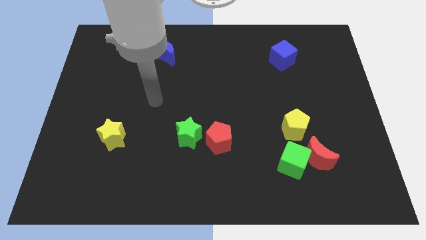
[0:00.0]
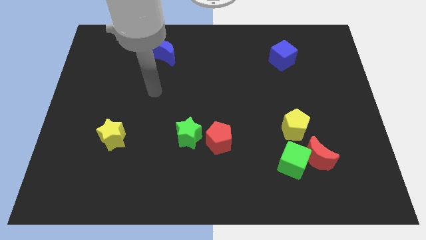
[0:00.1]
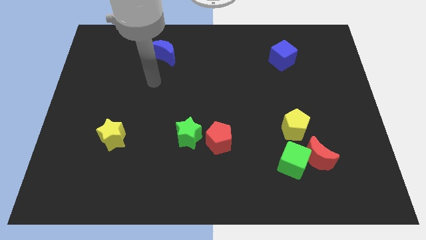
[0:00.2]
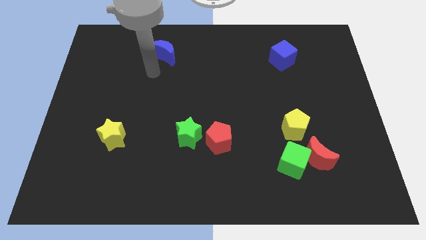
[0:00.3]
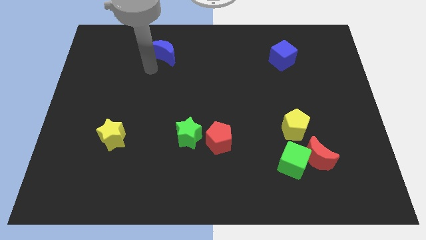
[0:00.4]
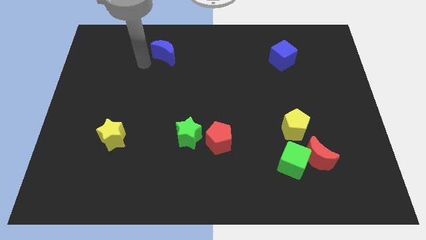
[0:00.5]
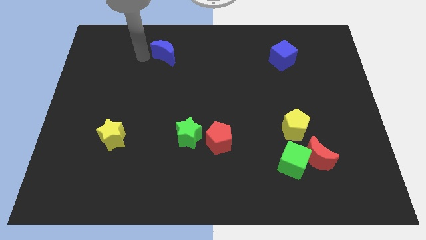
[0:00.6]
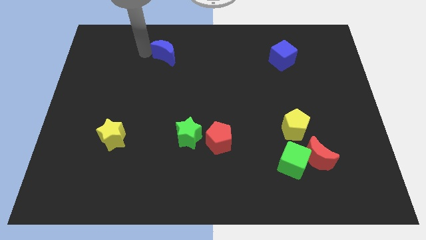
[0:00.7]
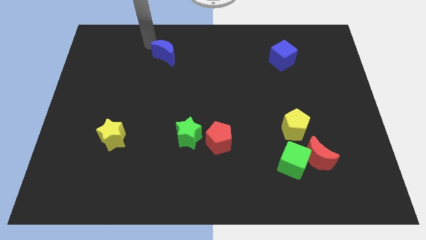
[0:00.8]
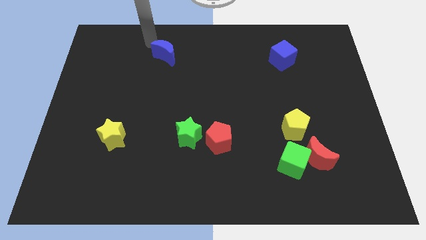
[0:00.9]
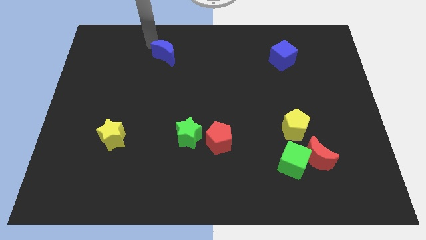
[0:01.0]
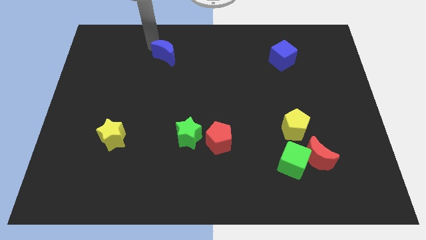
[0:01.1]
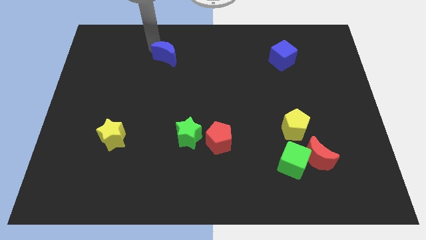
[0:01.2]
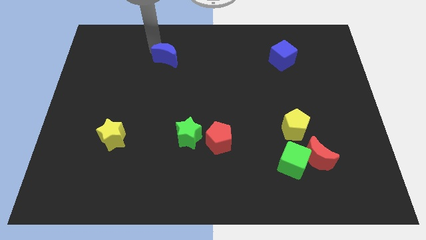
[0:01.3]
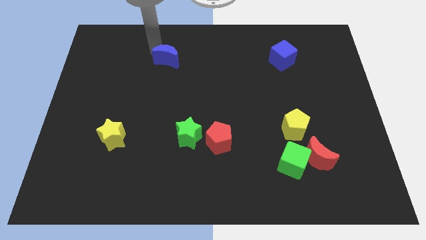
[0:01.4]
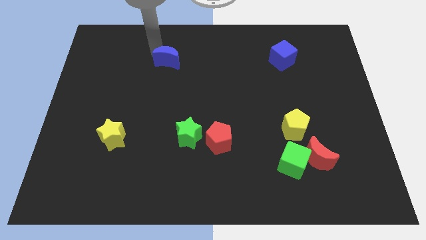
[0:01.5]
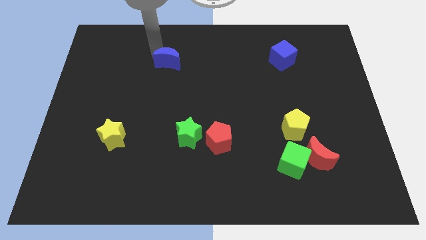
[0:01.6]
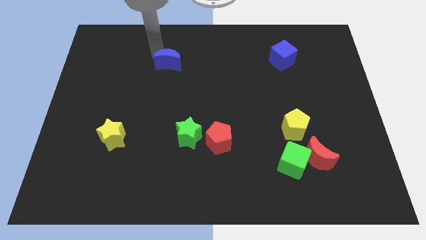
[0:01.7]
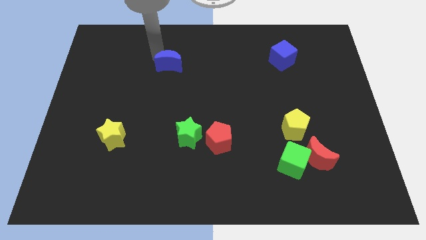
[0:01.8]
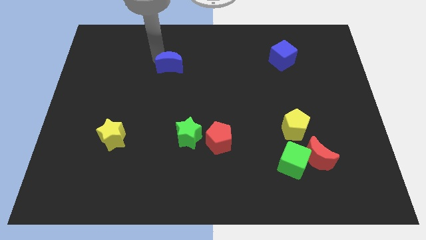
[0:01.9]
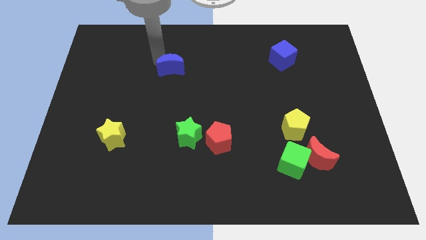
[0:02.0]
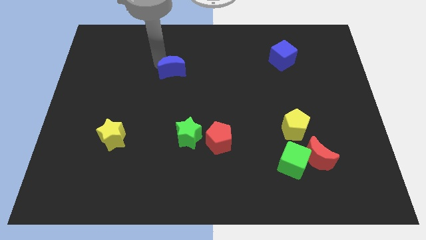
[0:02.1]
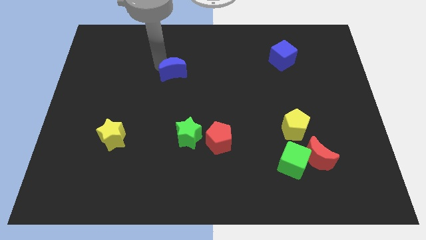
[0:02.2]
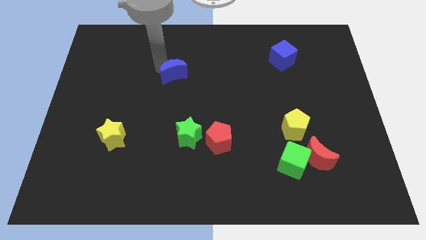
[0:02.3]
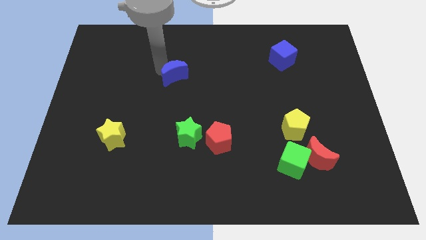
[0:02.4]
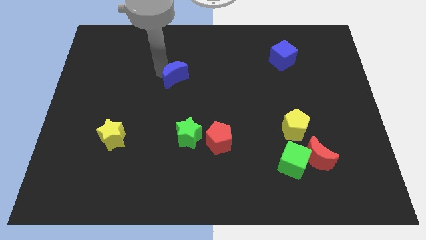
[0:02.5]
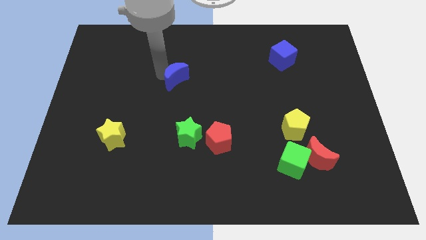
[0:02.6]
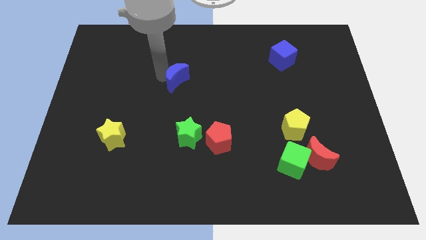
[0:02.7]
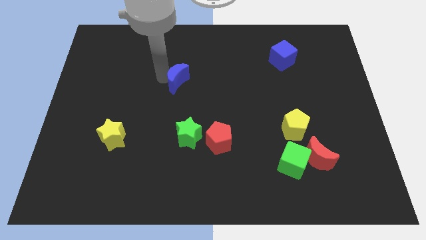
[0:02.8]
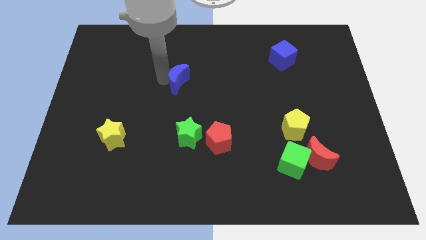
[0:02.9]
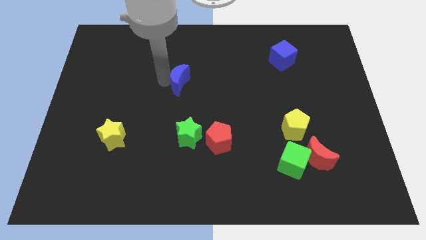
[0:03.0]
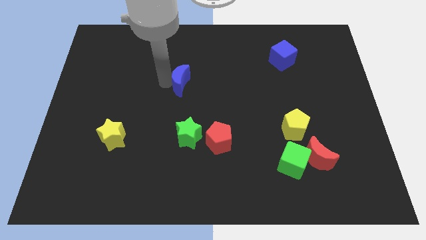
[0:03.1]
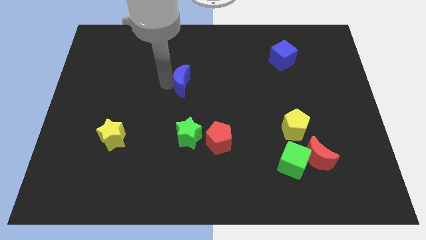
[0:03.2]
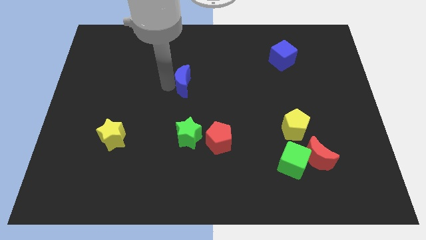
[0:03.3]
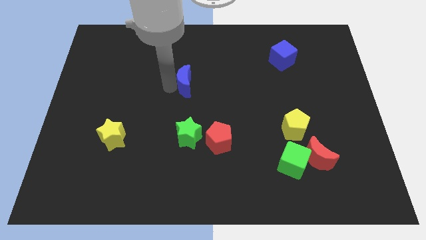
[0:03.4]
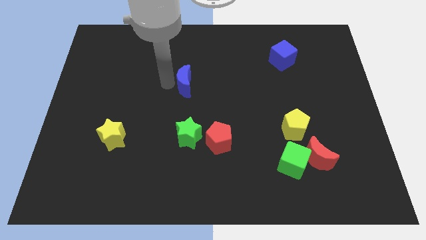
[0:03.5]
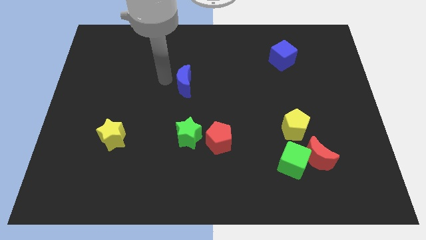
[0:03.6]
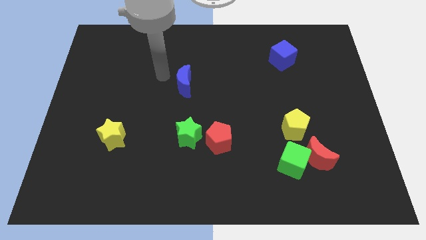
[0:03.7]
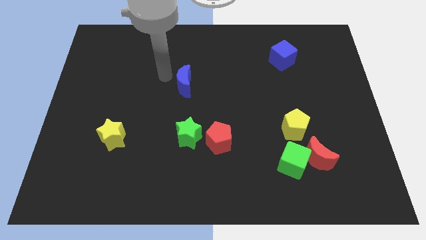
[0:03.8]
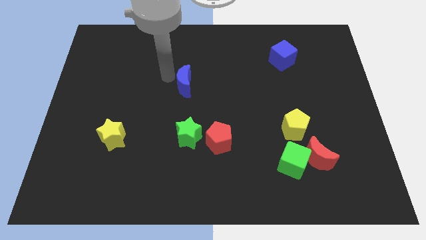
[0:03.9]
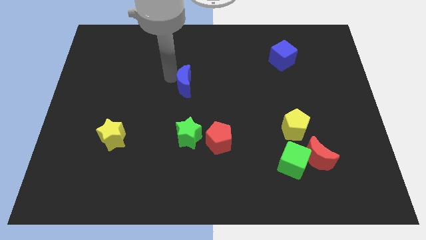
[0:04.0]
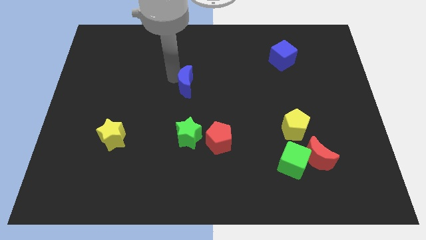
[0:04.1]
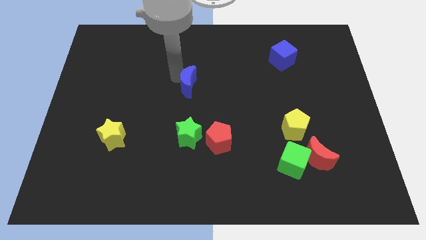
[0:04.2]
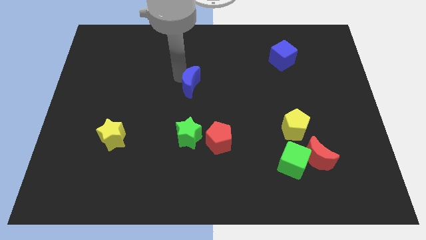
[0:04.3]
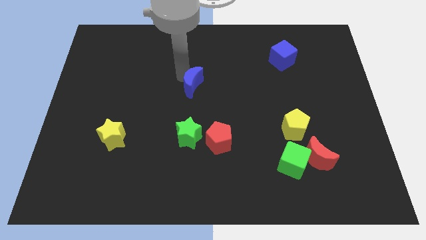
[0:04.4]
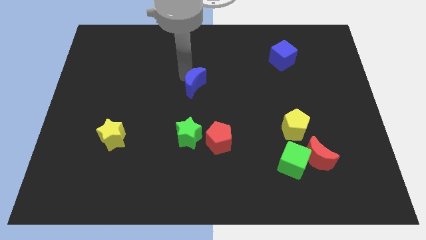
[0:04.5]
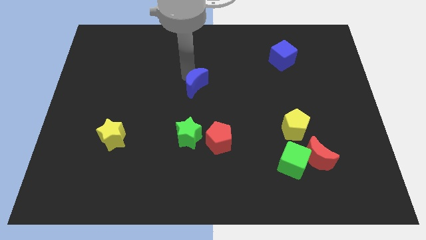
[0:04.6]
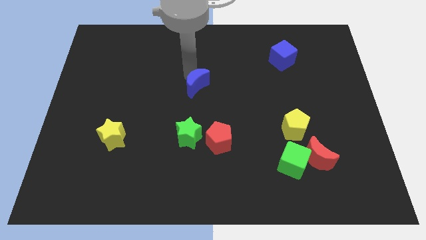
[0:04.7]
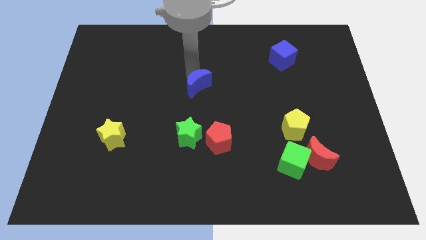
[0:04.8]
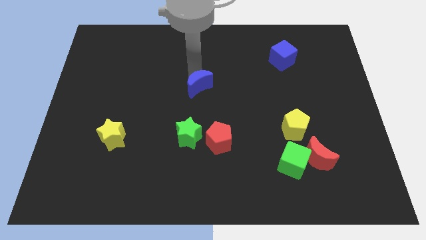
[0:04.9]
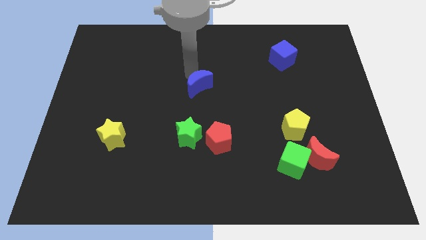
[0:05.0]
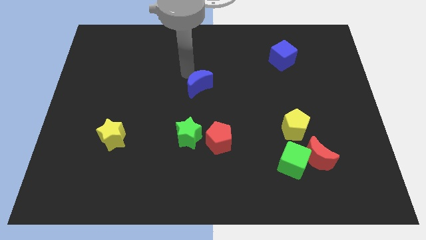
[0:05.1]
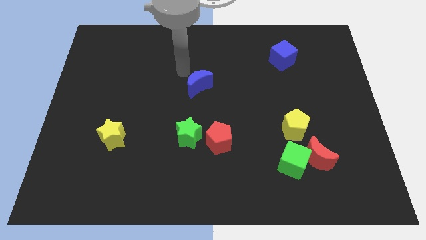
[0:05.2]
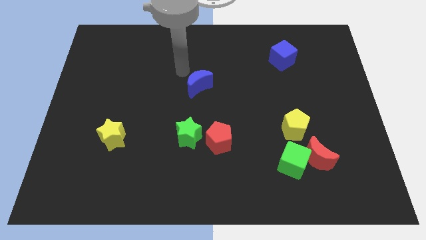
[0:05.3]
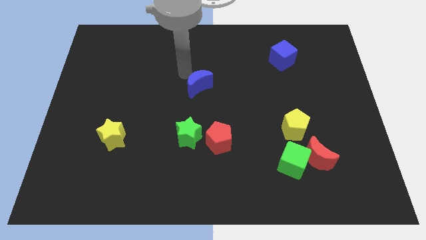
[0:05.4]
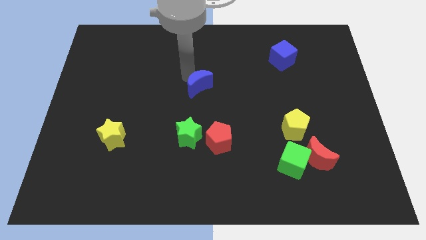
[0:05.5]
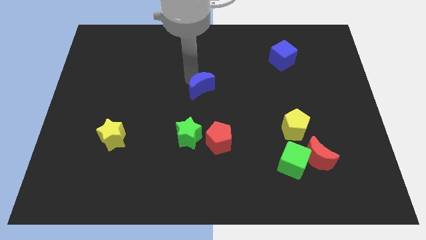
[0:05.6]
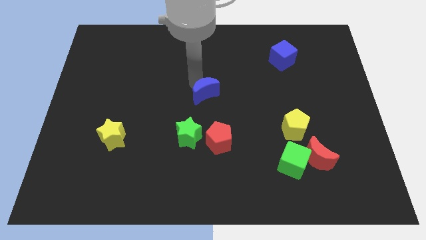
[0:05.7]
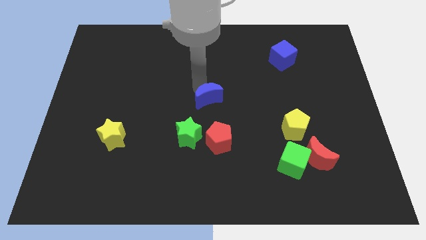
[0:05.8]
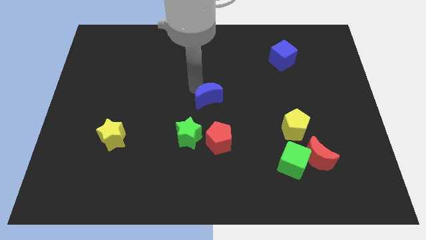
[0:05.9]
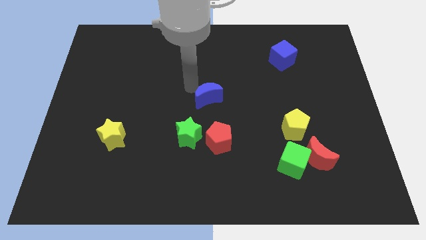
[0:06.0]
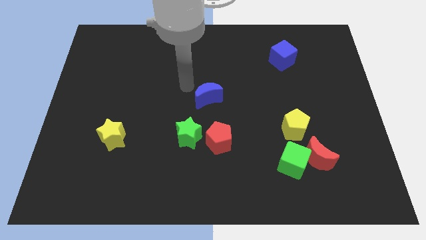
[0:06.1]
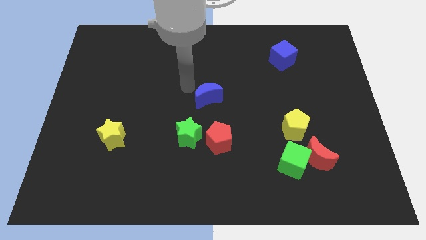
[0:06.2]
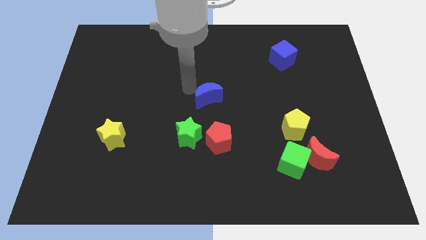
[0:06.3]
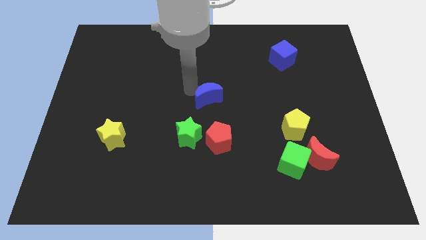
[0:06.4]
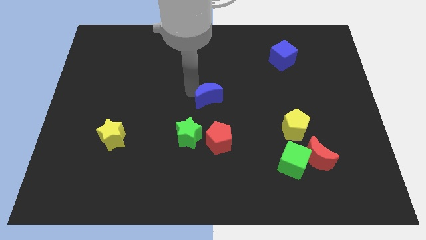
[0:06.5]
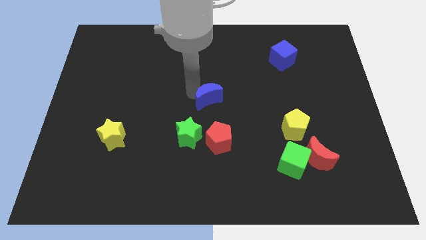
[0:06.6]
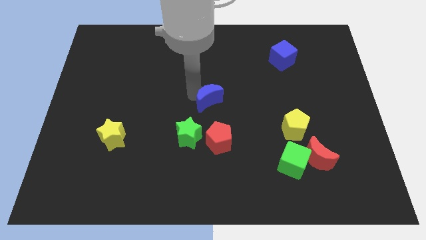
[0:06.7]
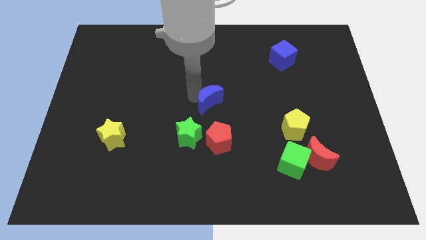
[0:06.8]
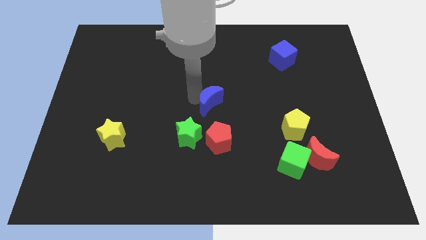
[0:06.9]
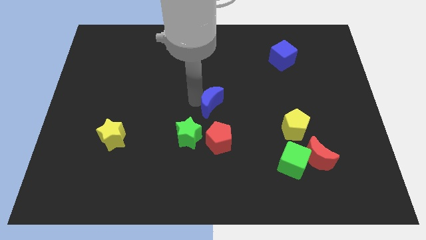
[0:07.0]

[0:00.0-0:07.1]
slide the blue moon down and then right

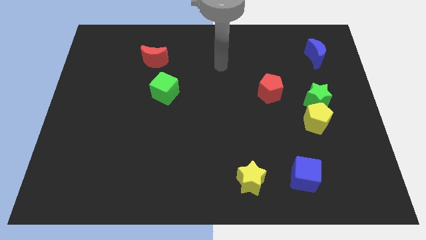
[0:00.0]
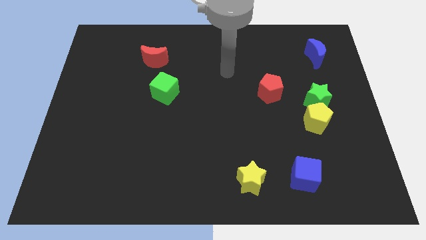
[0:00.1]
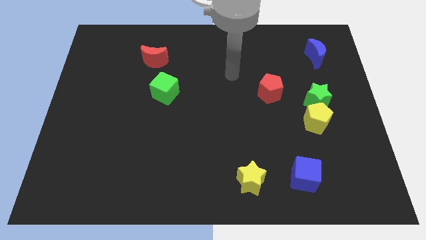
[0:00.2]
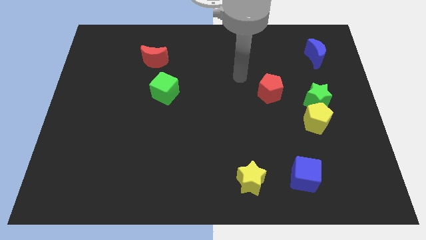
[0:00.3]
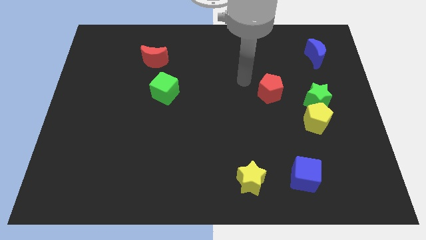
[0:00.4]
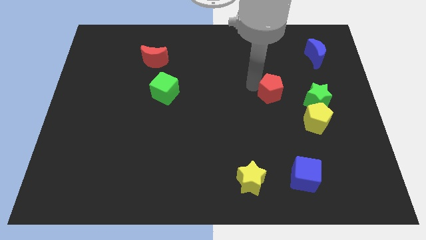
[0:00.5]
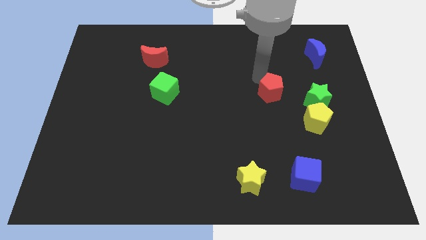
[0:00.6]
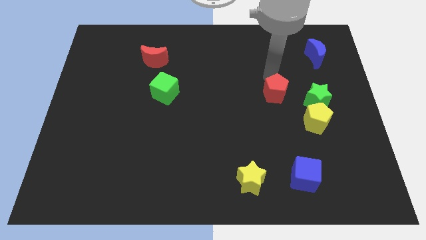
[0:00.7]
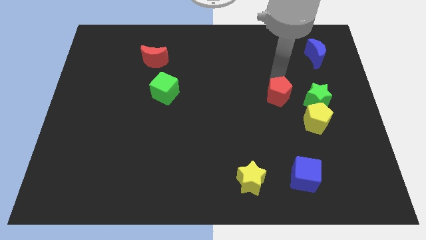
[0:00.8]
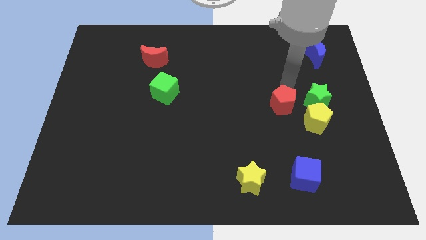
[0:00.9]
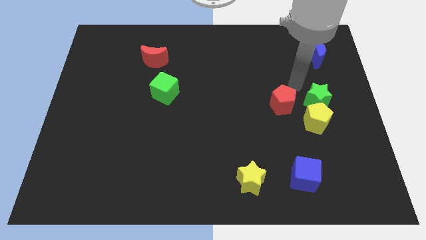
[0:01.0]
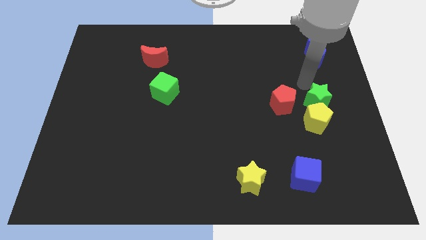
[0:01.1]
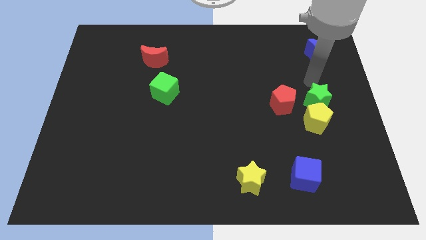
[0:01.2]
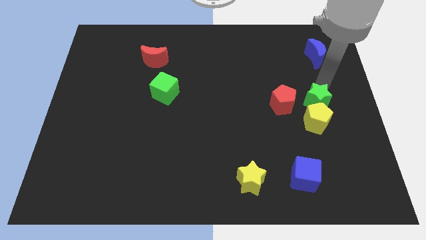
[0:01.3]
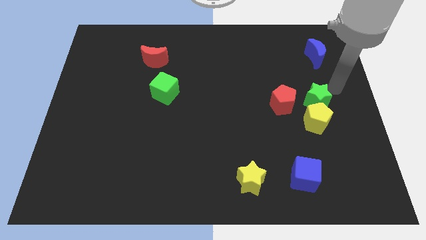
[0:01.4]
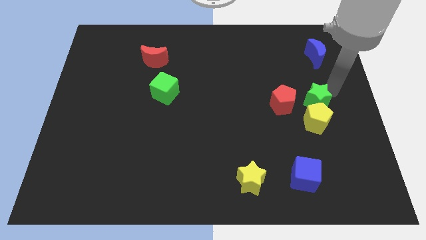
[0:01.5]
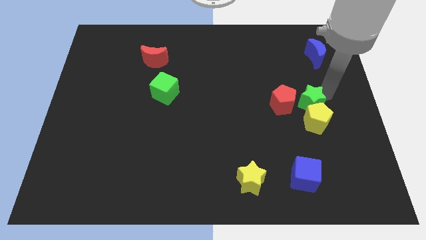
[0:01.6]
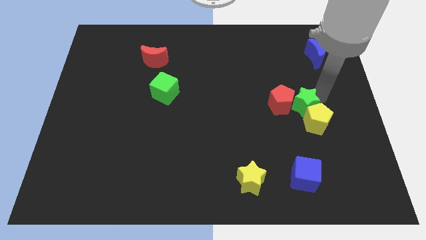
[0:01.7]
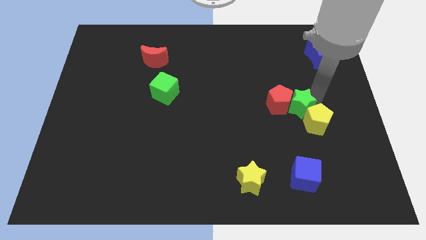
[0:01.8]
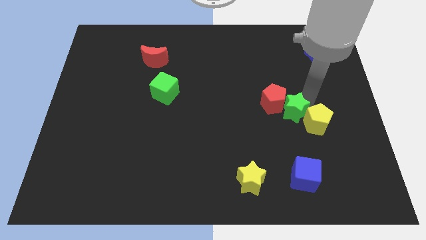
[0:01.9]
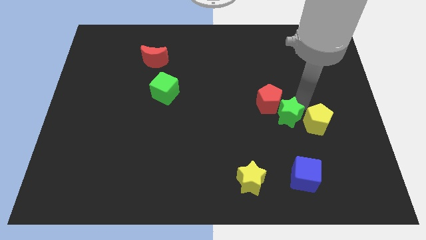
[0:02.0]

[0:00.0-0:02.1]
push the green star a little bit down and left diagonally
